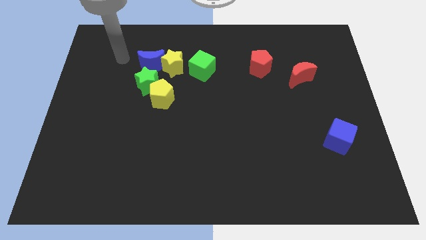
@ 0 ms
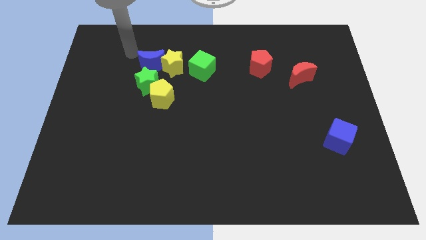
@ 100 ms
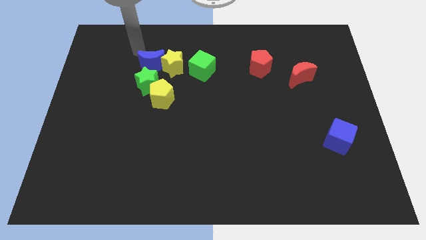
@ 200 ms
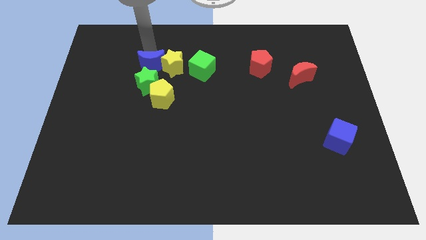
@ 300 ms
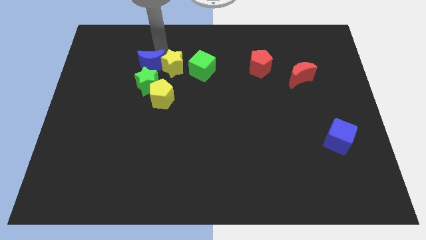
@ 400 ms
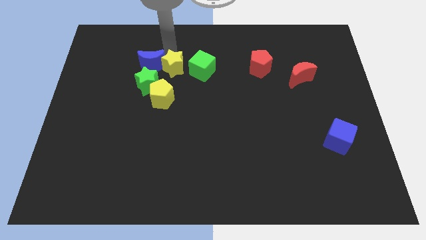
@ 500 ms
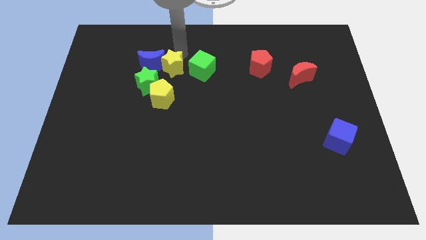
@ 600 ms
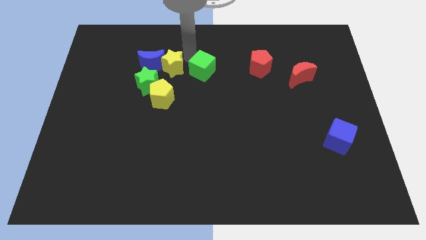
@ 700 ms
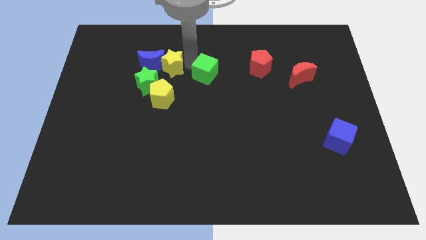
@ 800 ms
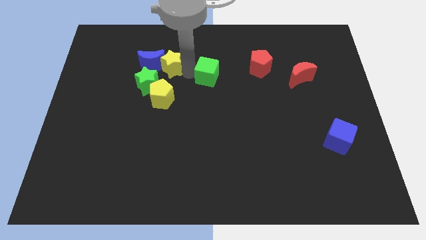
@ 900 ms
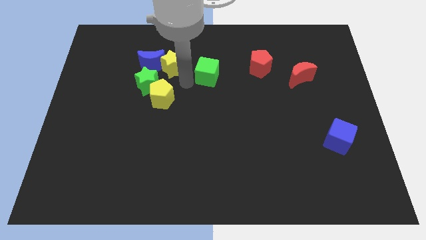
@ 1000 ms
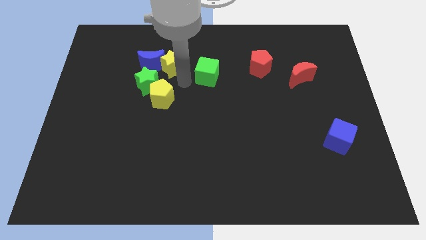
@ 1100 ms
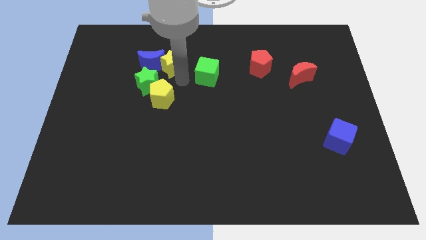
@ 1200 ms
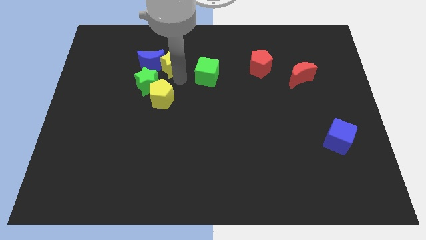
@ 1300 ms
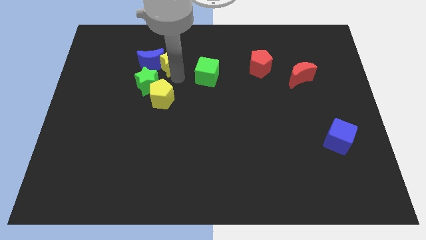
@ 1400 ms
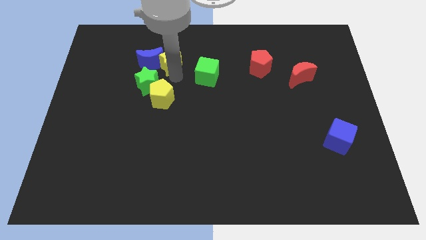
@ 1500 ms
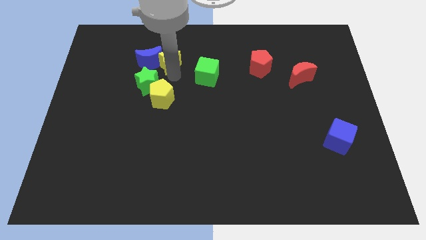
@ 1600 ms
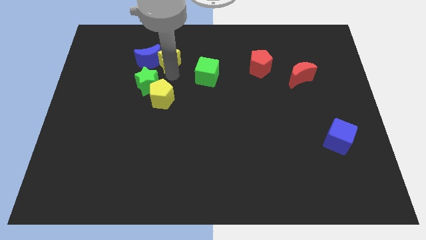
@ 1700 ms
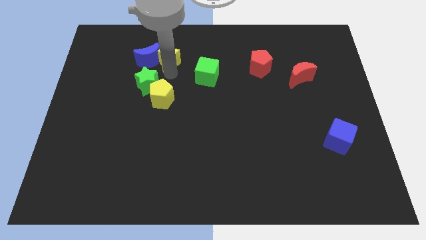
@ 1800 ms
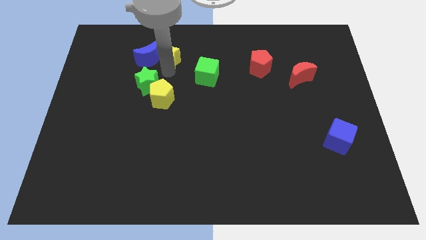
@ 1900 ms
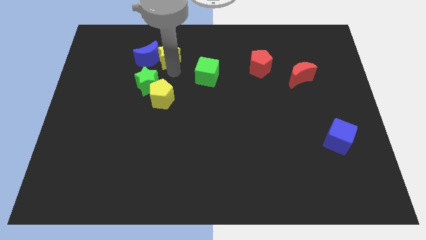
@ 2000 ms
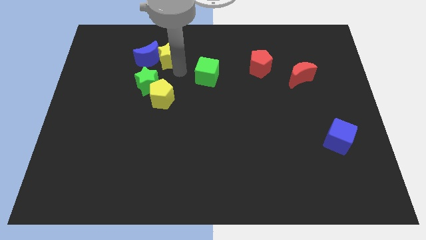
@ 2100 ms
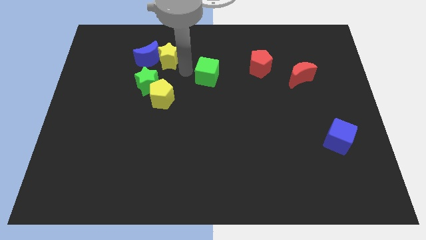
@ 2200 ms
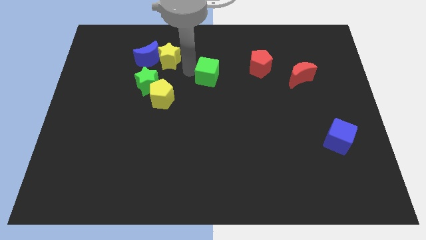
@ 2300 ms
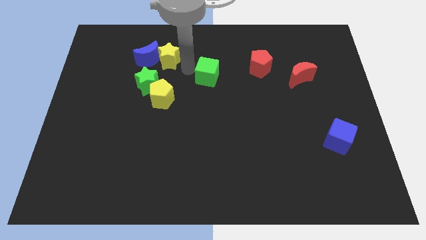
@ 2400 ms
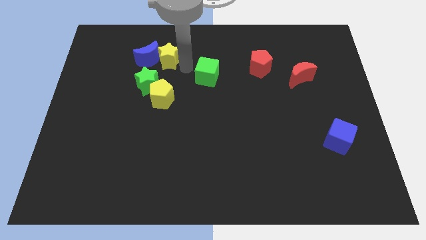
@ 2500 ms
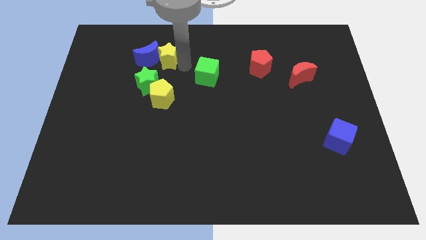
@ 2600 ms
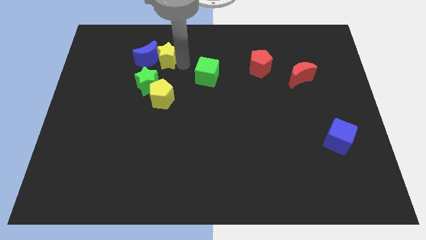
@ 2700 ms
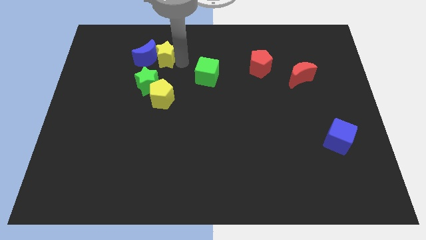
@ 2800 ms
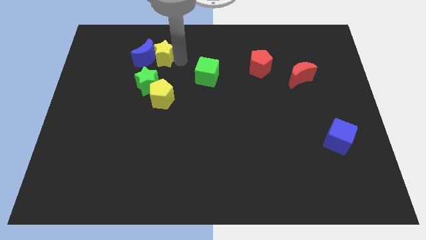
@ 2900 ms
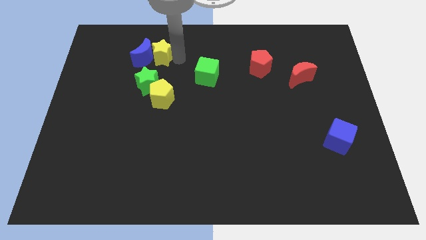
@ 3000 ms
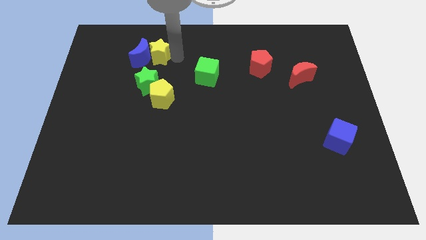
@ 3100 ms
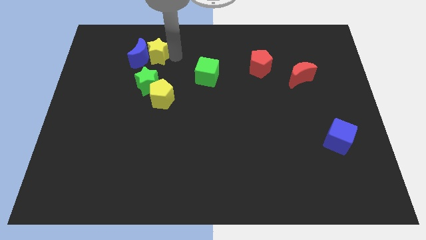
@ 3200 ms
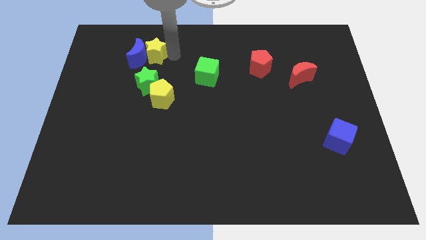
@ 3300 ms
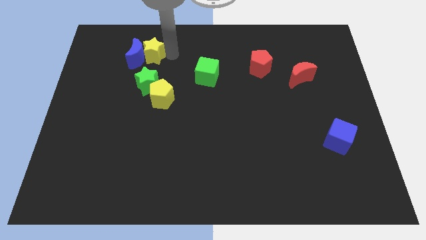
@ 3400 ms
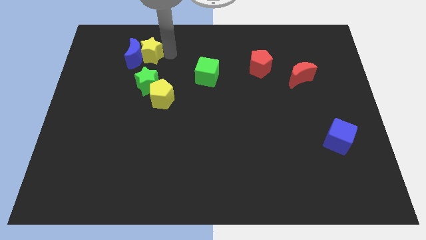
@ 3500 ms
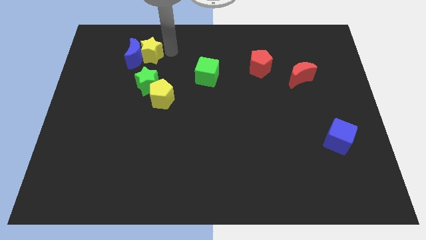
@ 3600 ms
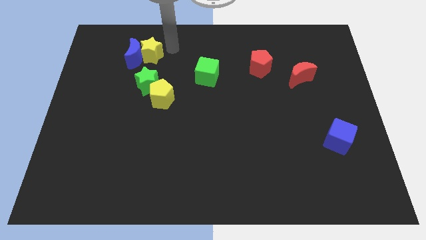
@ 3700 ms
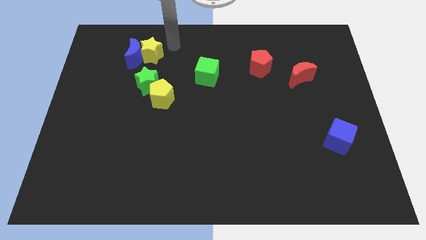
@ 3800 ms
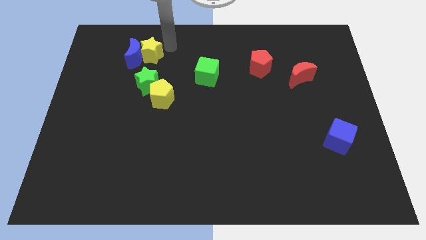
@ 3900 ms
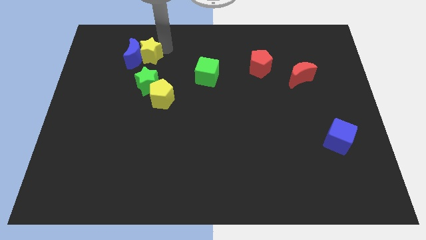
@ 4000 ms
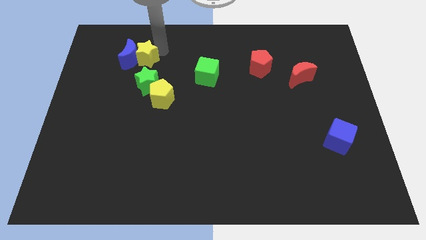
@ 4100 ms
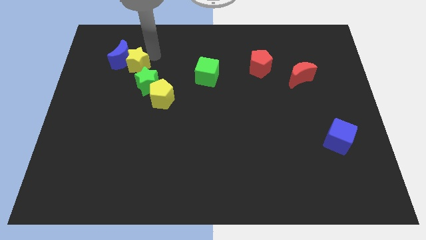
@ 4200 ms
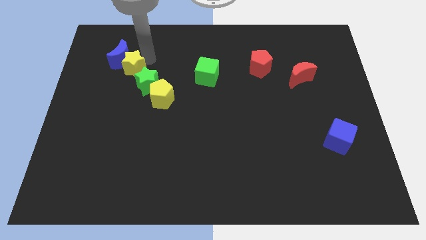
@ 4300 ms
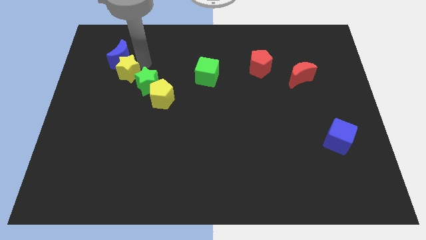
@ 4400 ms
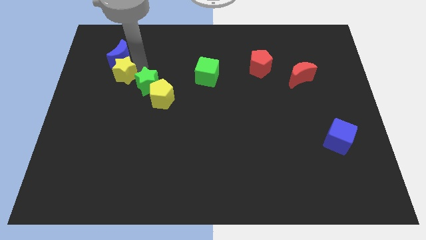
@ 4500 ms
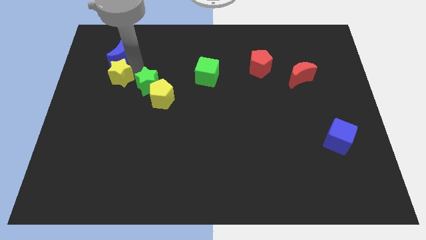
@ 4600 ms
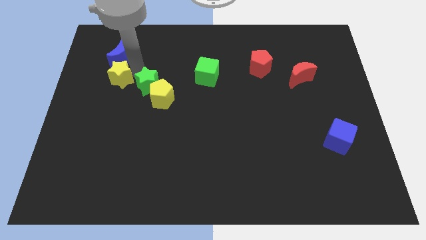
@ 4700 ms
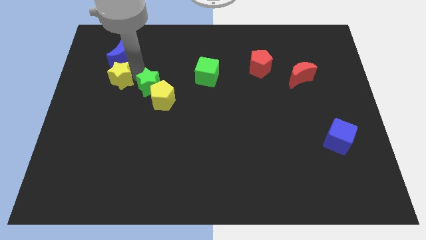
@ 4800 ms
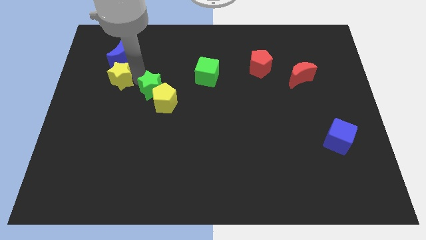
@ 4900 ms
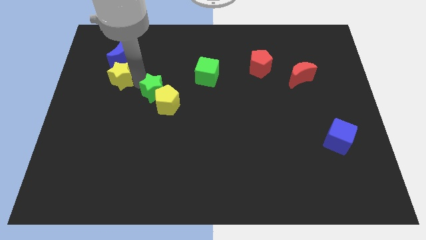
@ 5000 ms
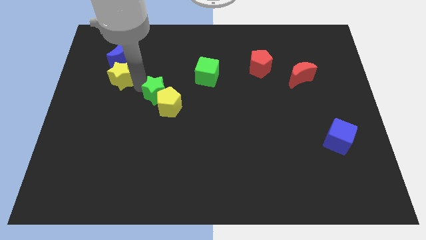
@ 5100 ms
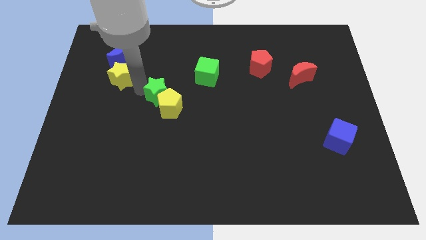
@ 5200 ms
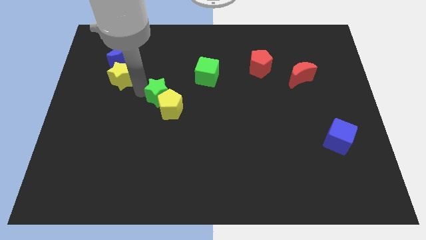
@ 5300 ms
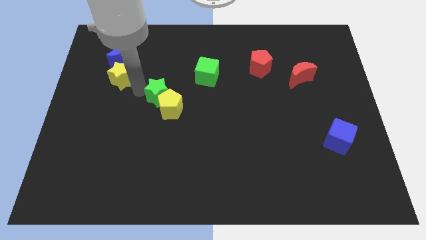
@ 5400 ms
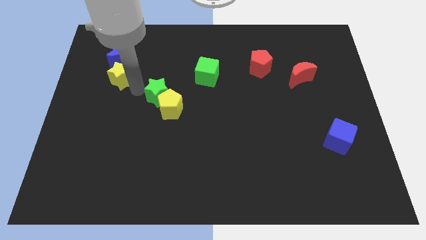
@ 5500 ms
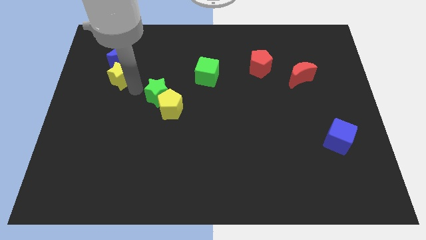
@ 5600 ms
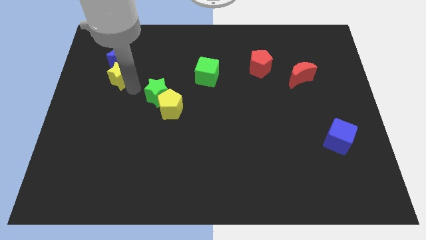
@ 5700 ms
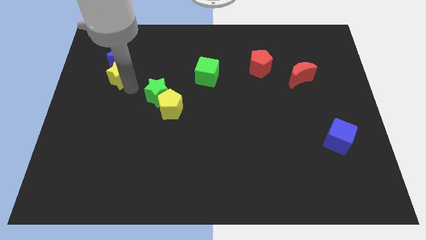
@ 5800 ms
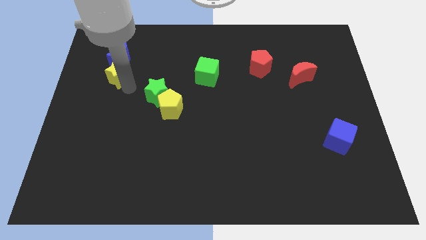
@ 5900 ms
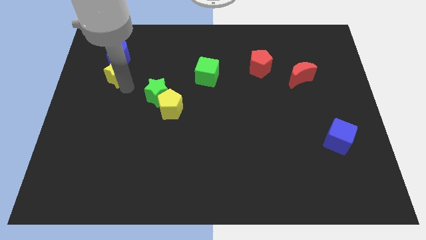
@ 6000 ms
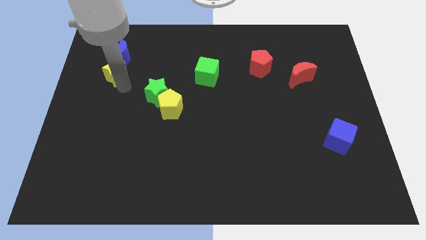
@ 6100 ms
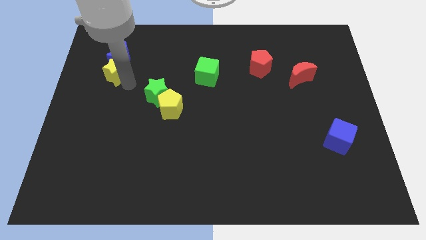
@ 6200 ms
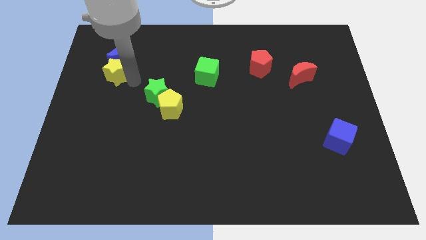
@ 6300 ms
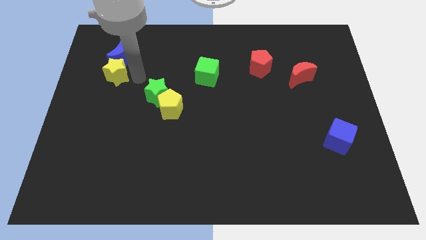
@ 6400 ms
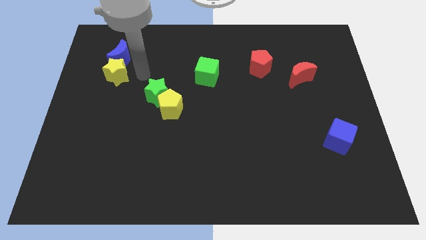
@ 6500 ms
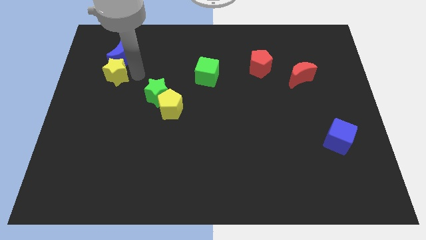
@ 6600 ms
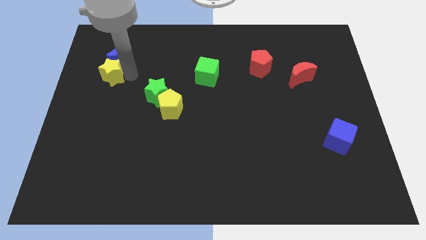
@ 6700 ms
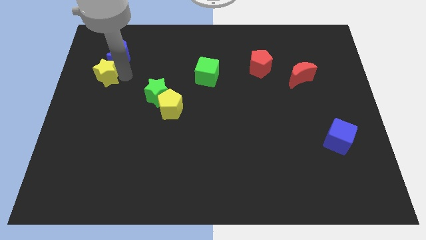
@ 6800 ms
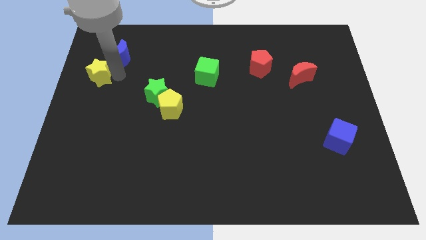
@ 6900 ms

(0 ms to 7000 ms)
slide the yellow star to the left side
